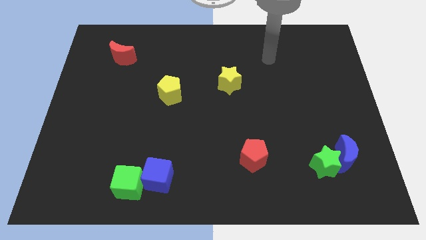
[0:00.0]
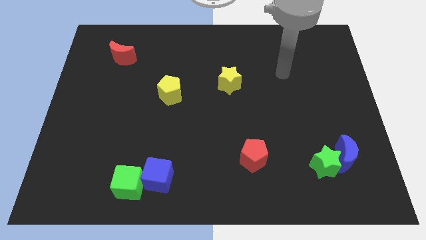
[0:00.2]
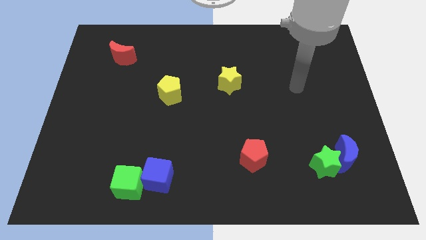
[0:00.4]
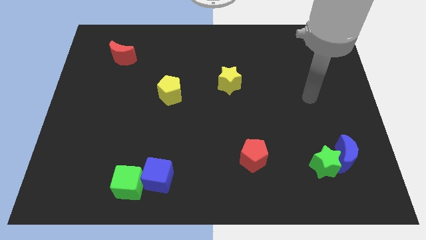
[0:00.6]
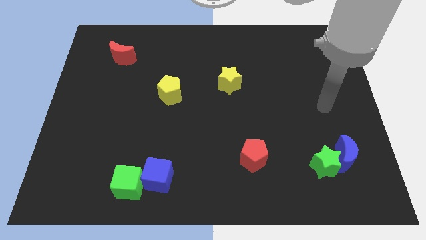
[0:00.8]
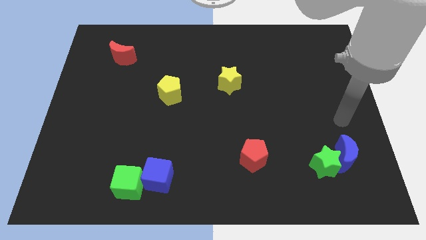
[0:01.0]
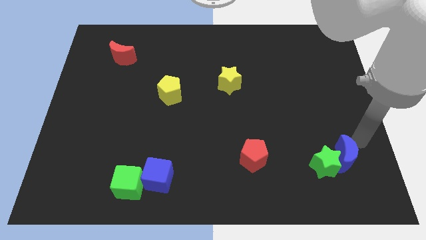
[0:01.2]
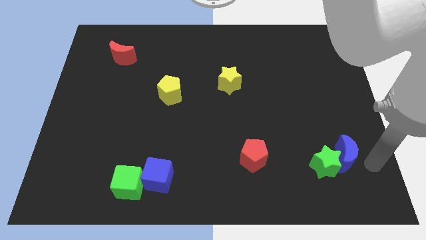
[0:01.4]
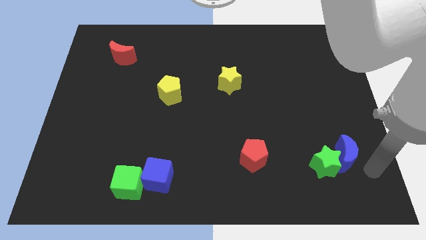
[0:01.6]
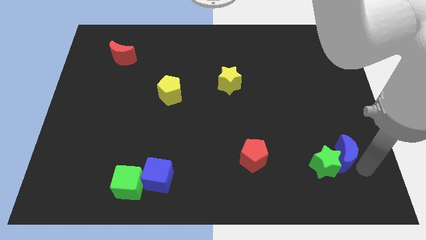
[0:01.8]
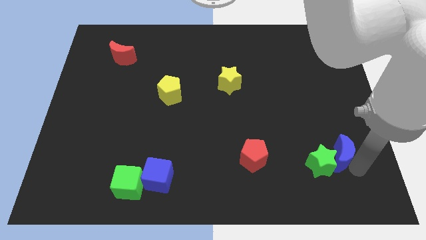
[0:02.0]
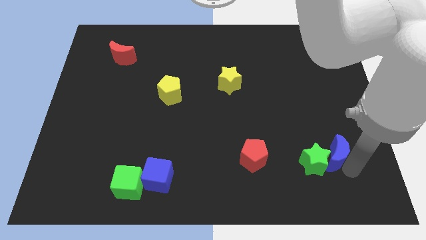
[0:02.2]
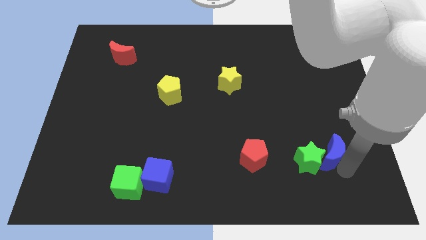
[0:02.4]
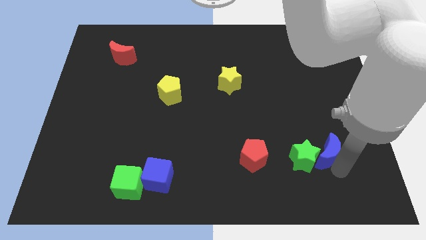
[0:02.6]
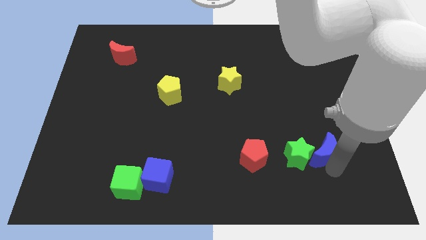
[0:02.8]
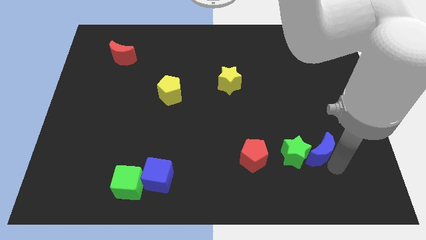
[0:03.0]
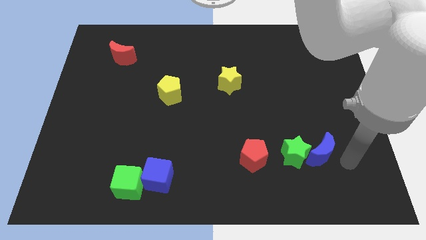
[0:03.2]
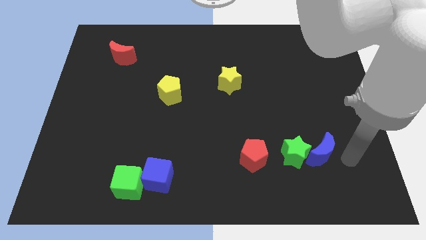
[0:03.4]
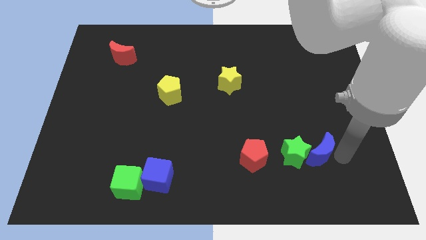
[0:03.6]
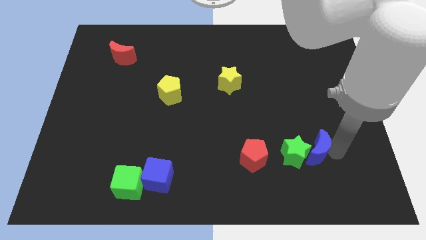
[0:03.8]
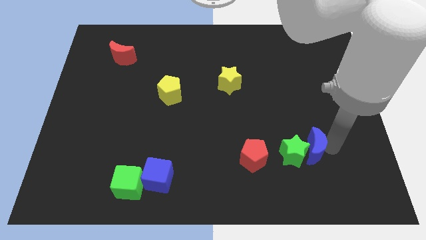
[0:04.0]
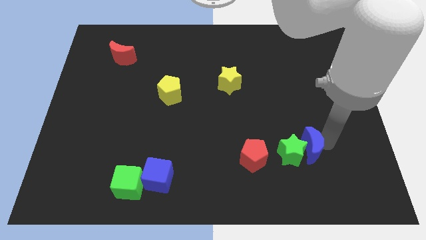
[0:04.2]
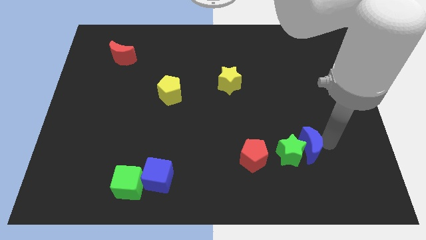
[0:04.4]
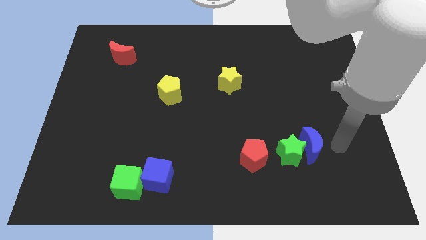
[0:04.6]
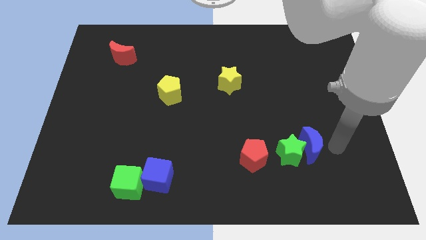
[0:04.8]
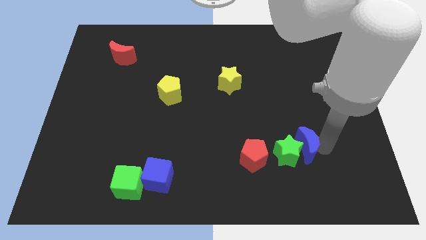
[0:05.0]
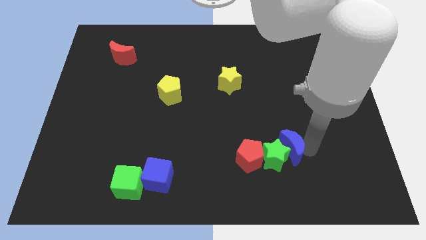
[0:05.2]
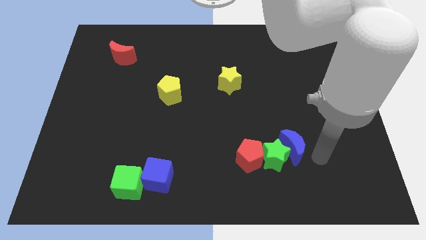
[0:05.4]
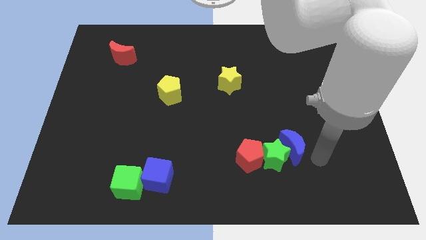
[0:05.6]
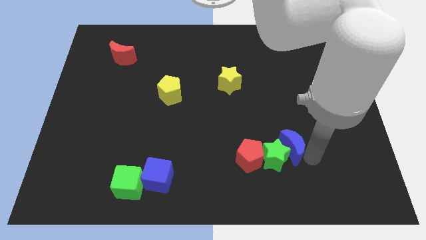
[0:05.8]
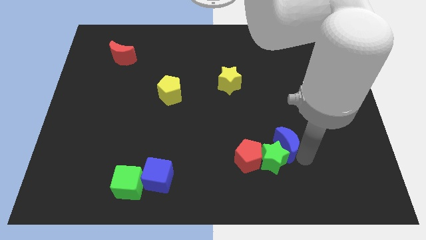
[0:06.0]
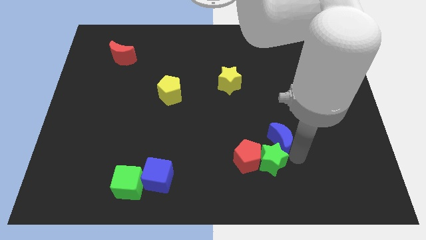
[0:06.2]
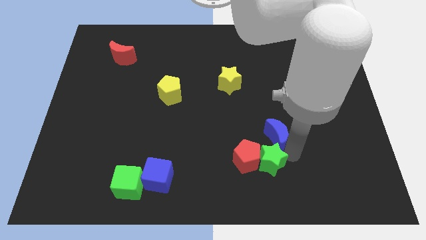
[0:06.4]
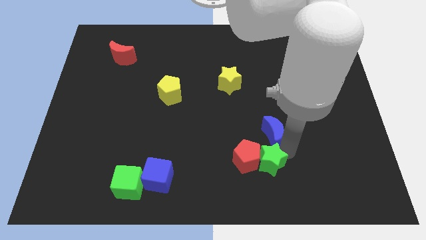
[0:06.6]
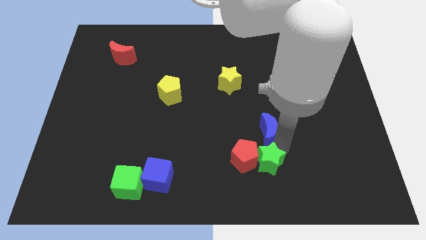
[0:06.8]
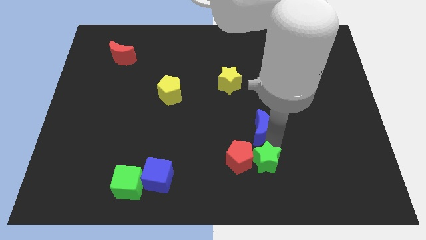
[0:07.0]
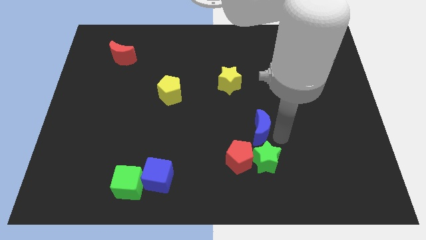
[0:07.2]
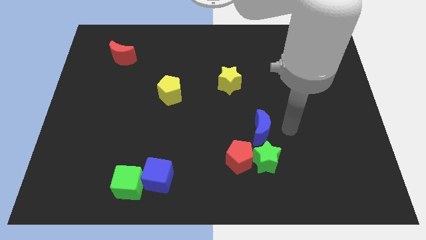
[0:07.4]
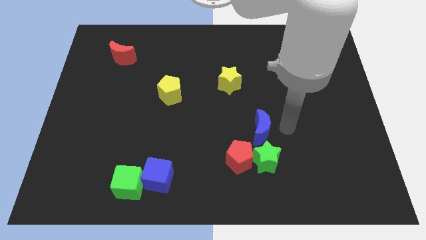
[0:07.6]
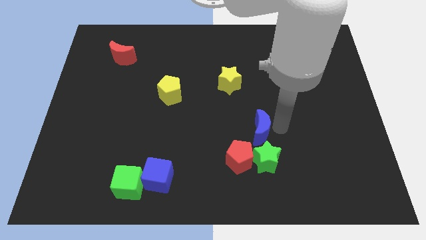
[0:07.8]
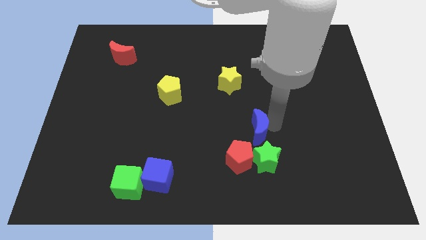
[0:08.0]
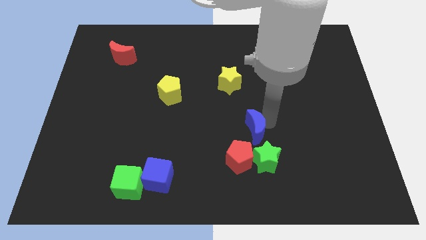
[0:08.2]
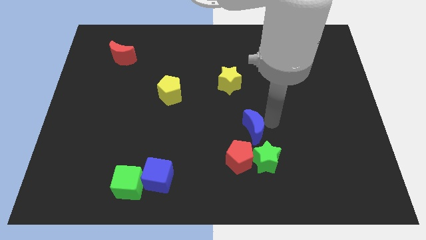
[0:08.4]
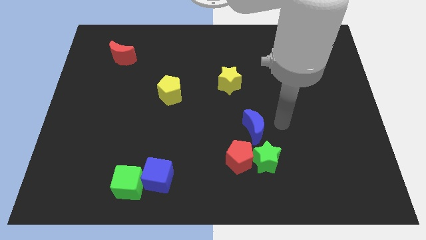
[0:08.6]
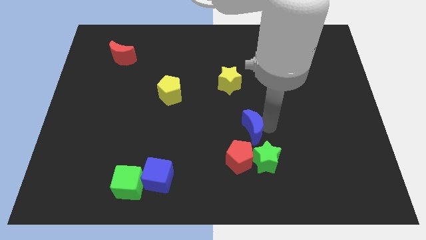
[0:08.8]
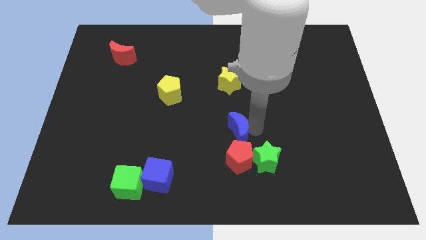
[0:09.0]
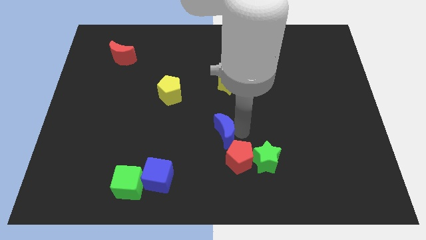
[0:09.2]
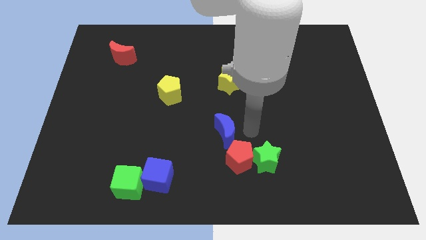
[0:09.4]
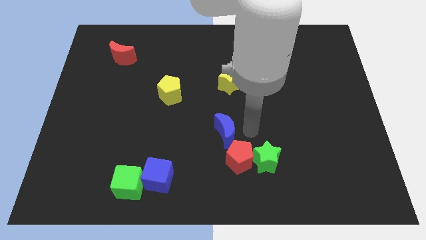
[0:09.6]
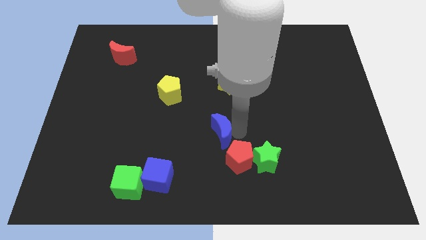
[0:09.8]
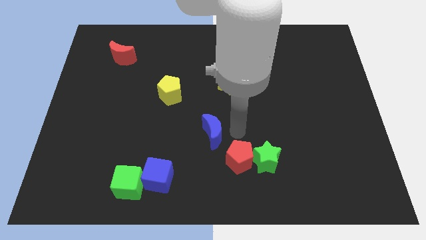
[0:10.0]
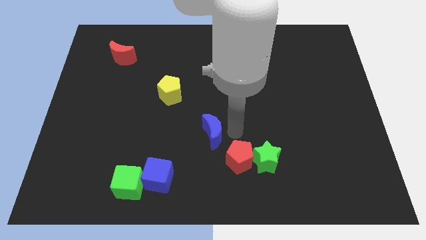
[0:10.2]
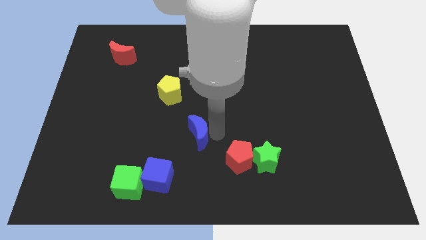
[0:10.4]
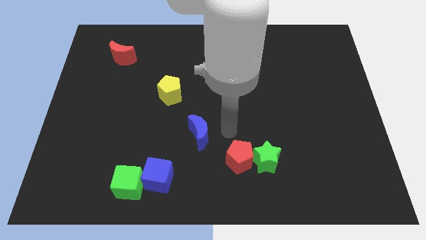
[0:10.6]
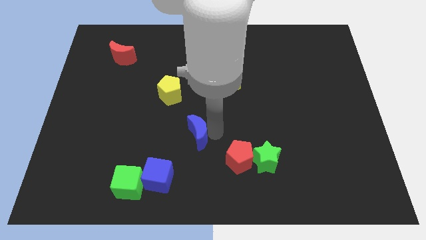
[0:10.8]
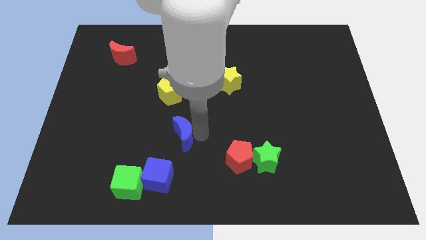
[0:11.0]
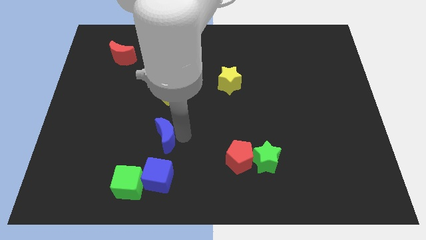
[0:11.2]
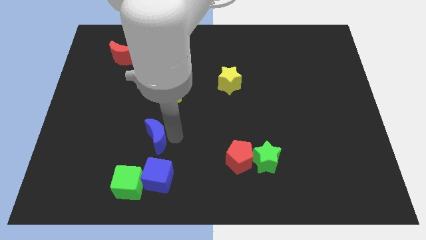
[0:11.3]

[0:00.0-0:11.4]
push the blue moon to the top side of the green cube

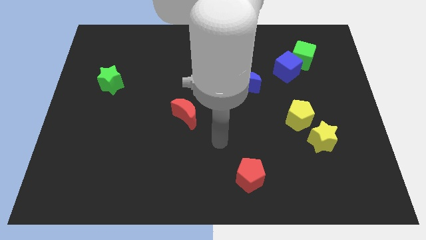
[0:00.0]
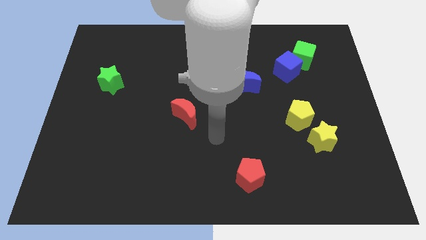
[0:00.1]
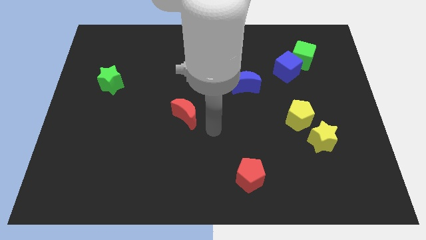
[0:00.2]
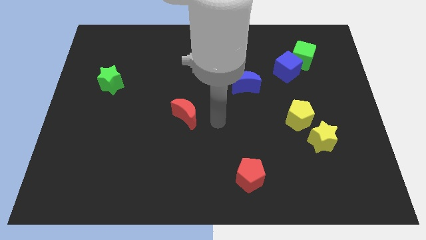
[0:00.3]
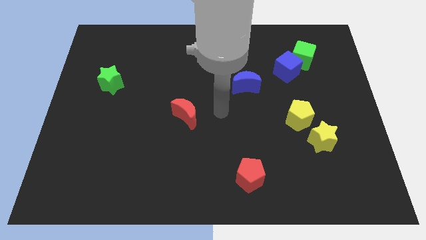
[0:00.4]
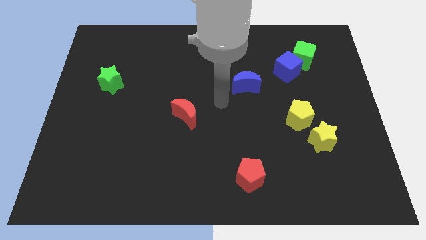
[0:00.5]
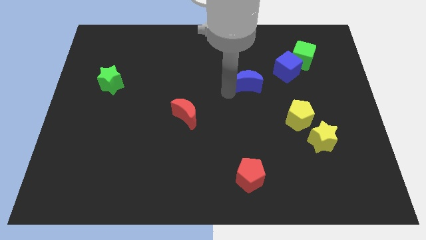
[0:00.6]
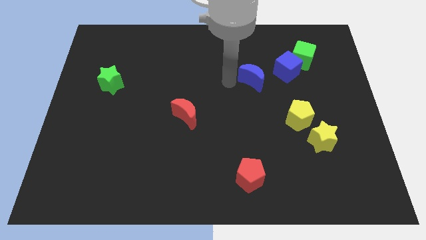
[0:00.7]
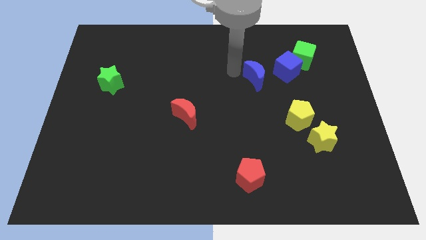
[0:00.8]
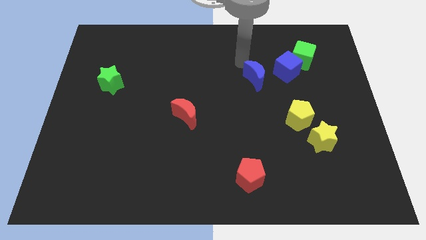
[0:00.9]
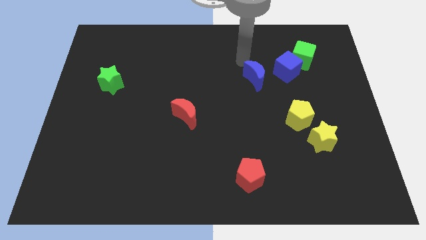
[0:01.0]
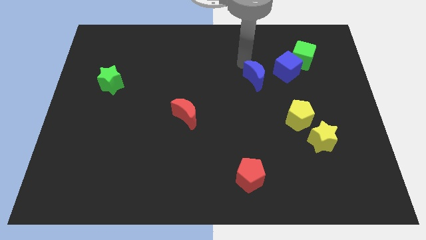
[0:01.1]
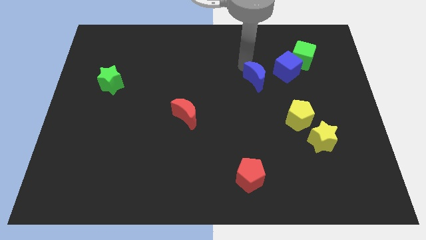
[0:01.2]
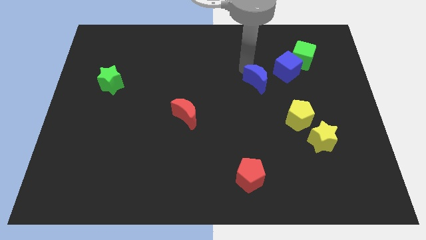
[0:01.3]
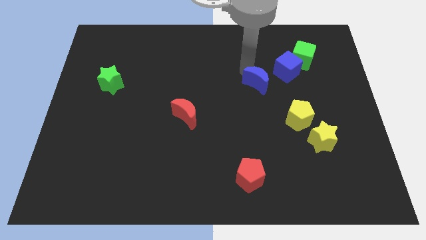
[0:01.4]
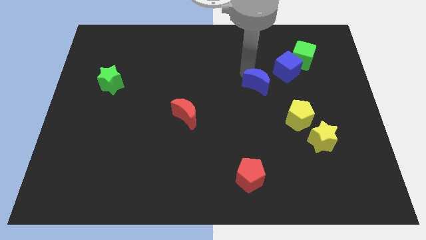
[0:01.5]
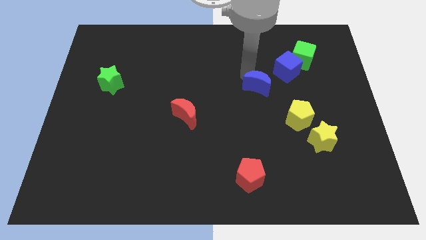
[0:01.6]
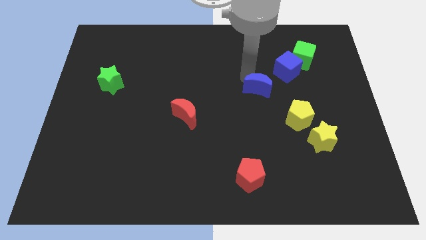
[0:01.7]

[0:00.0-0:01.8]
put the blue moon diagonally up and to the left of the yellow pentagon
